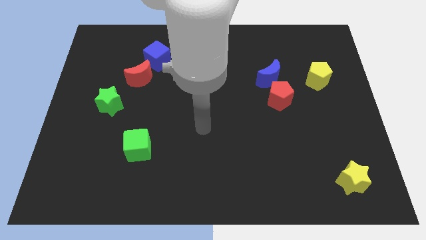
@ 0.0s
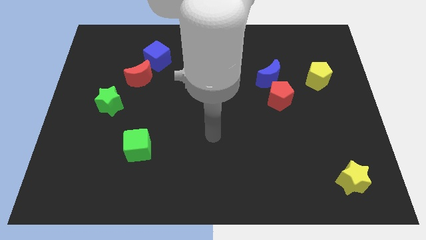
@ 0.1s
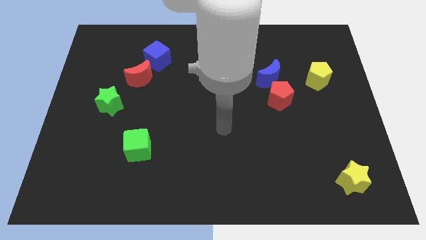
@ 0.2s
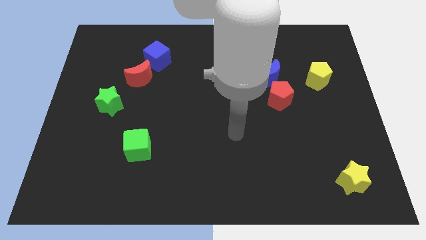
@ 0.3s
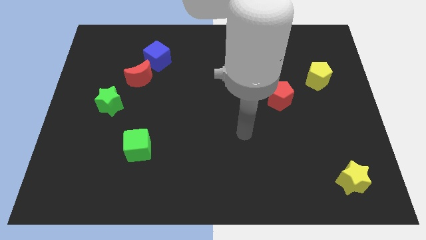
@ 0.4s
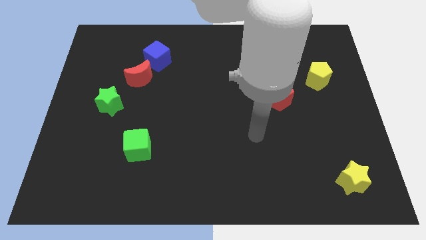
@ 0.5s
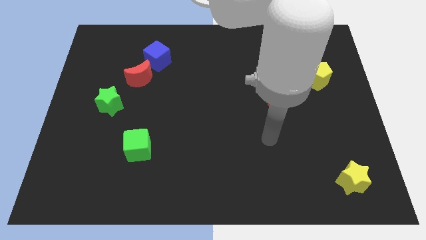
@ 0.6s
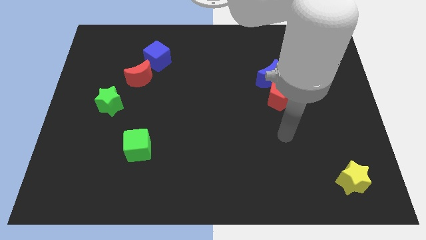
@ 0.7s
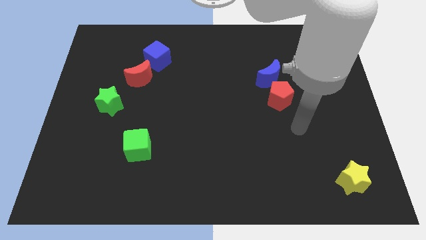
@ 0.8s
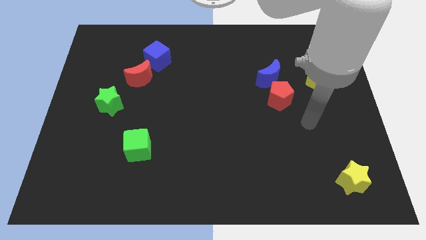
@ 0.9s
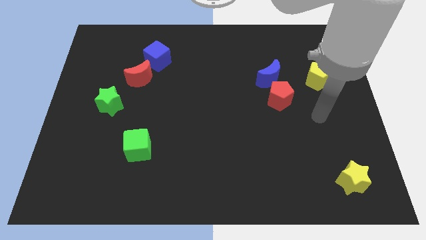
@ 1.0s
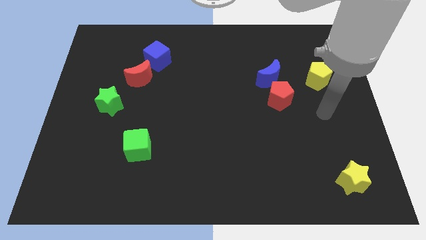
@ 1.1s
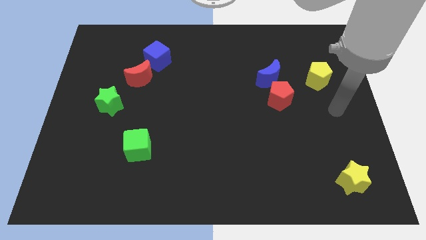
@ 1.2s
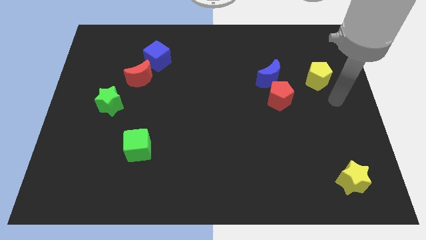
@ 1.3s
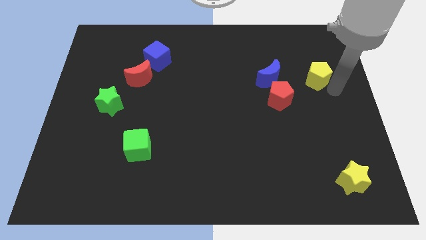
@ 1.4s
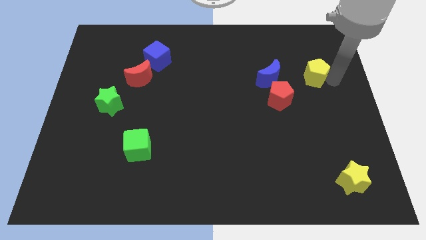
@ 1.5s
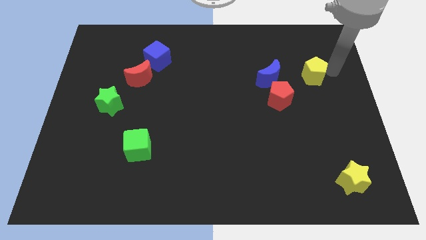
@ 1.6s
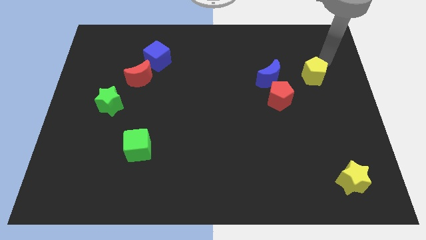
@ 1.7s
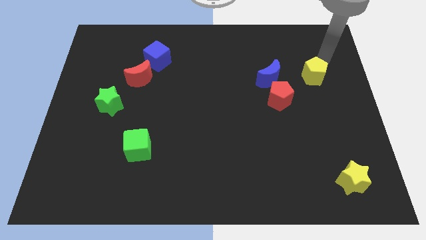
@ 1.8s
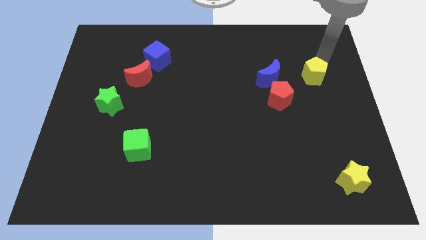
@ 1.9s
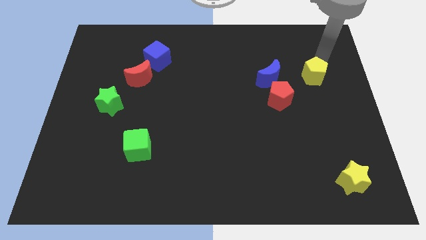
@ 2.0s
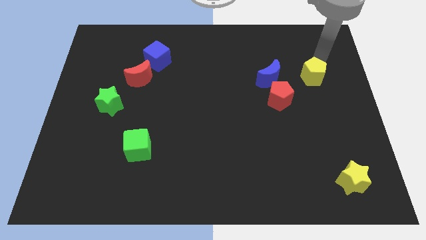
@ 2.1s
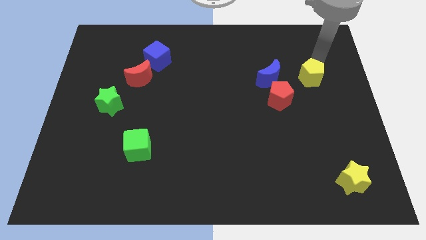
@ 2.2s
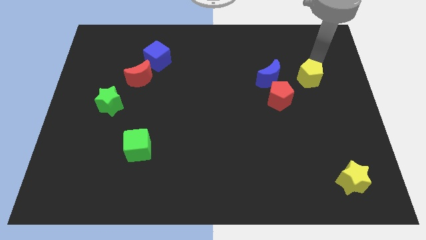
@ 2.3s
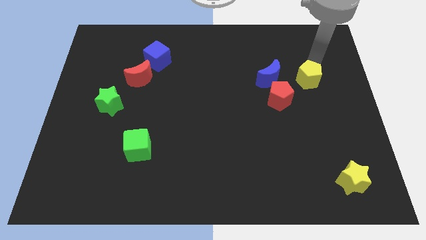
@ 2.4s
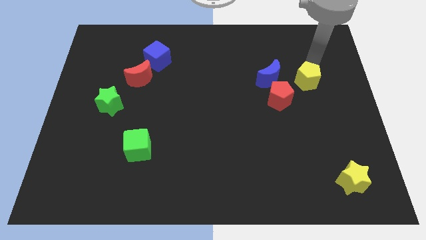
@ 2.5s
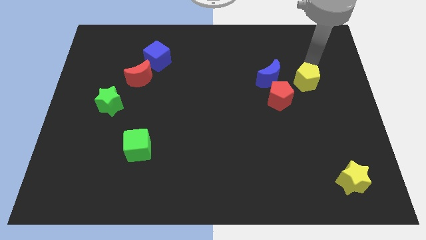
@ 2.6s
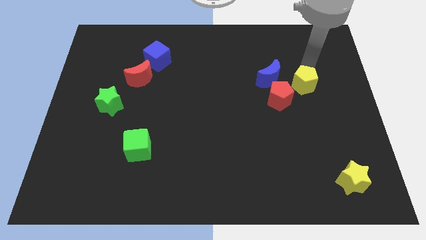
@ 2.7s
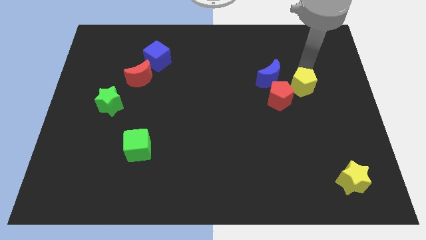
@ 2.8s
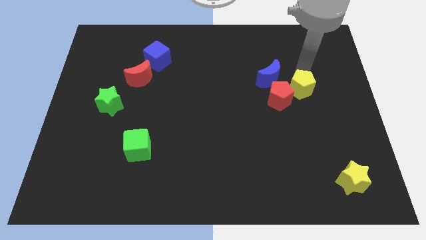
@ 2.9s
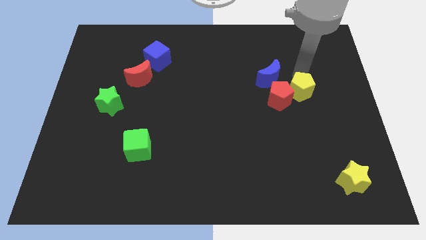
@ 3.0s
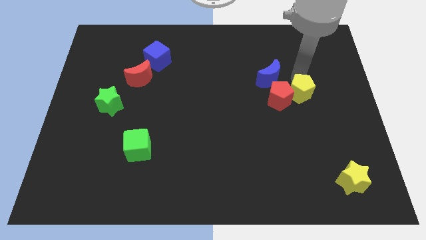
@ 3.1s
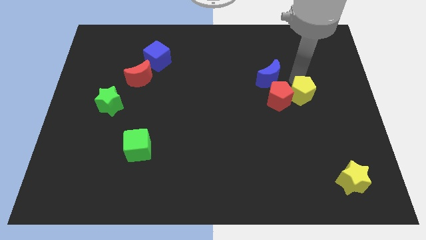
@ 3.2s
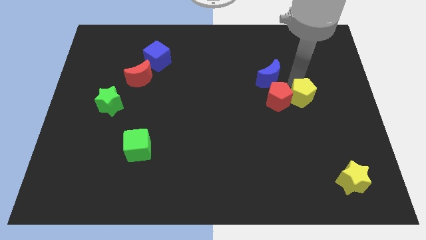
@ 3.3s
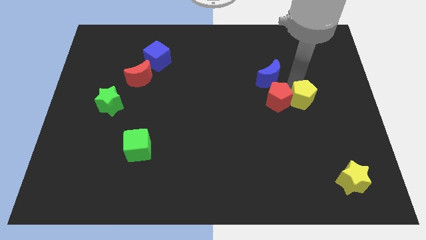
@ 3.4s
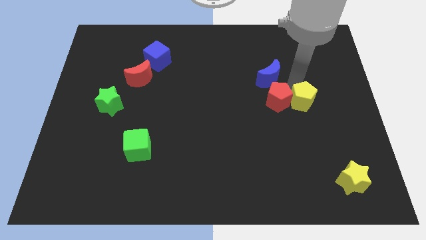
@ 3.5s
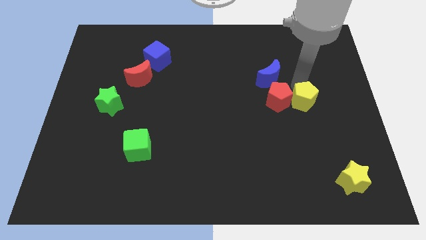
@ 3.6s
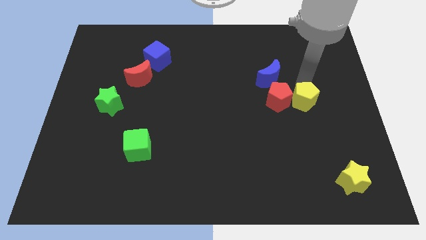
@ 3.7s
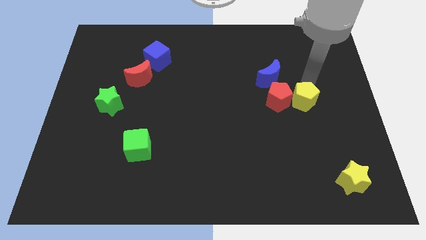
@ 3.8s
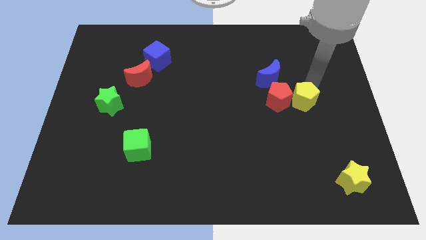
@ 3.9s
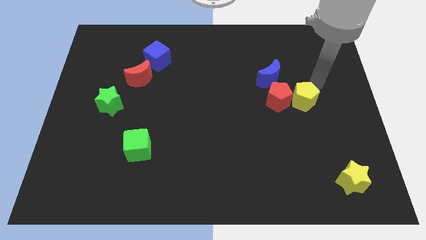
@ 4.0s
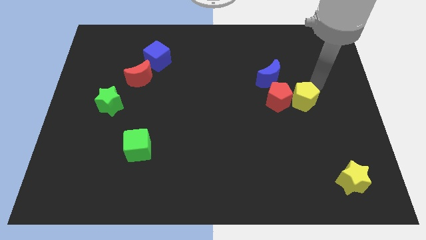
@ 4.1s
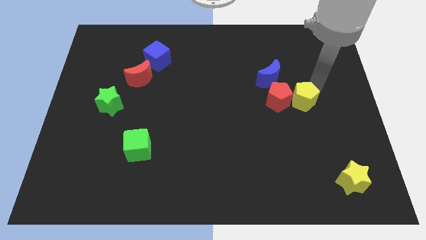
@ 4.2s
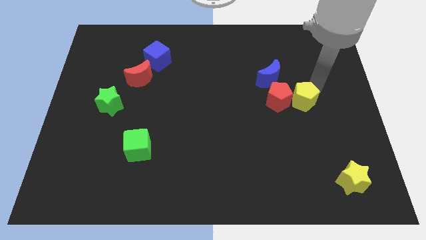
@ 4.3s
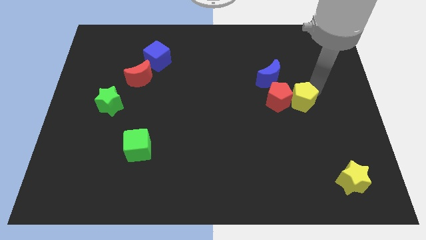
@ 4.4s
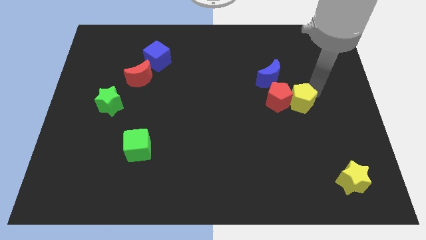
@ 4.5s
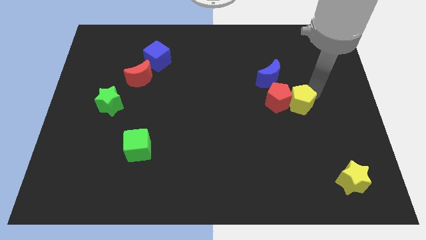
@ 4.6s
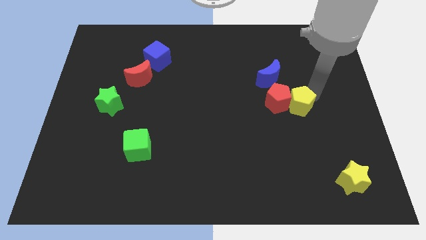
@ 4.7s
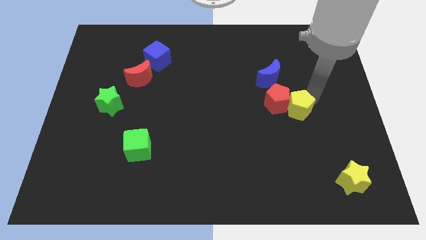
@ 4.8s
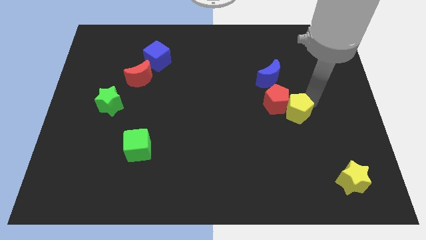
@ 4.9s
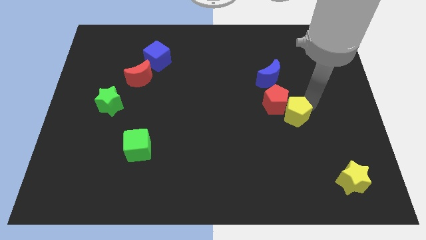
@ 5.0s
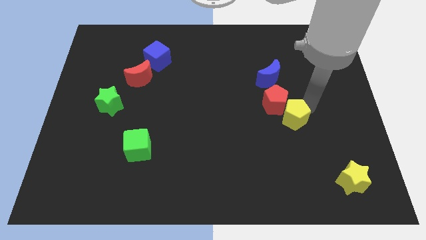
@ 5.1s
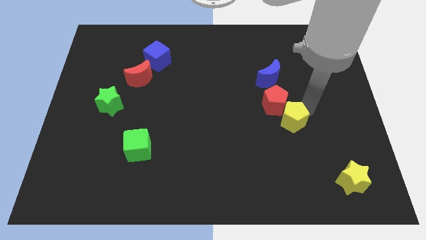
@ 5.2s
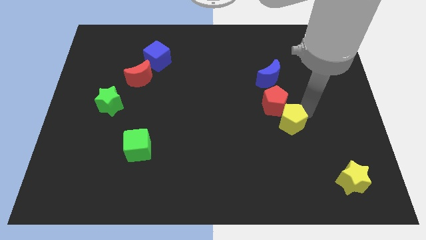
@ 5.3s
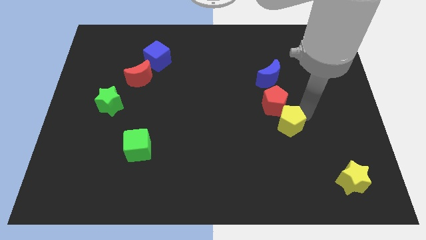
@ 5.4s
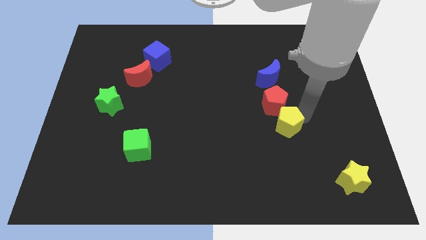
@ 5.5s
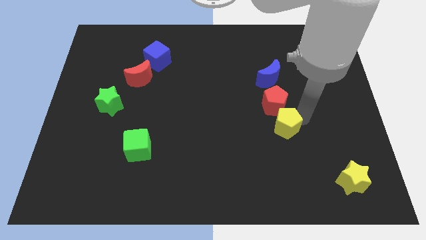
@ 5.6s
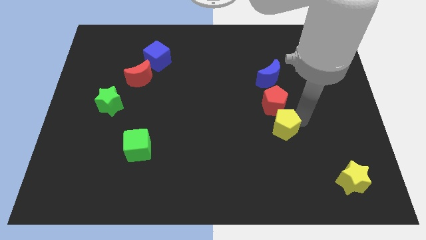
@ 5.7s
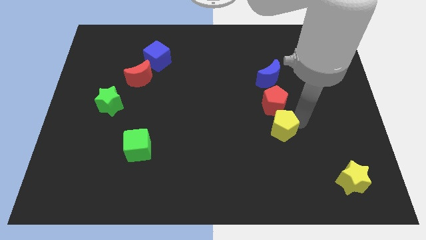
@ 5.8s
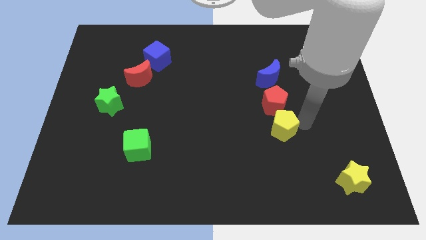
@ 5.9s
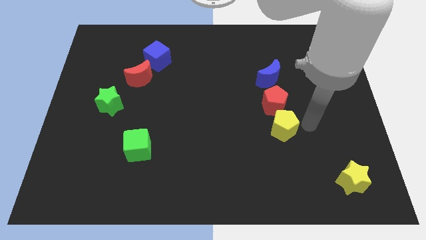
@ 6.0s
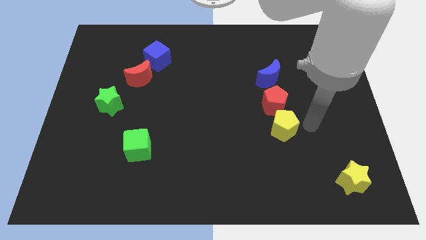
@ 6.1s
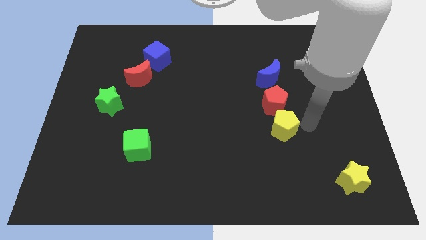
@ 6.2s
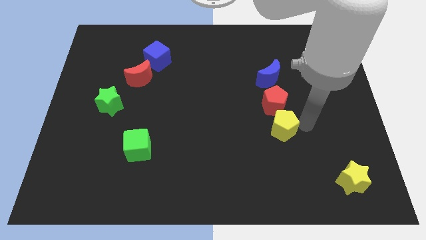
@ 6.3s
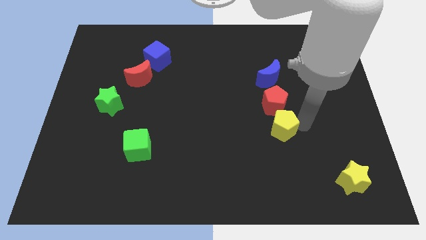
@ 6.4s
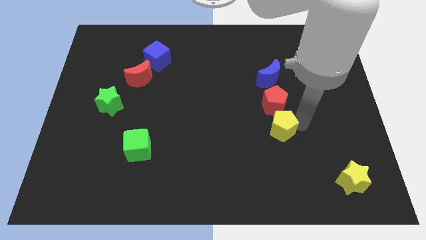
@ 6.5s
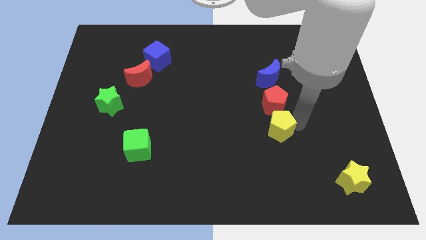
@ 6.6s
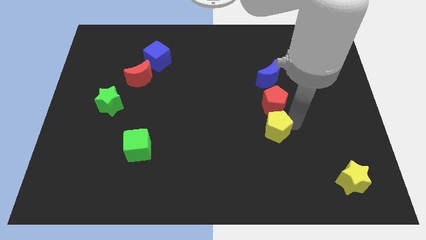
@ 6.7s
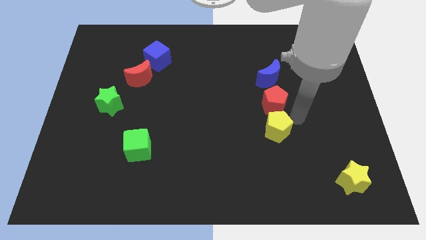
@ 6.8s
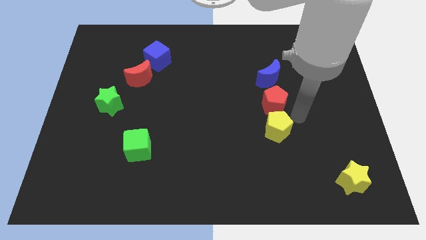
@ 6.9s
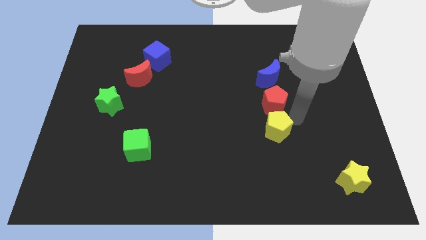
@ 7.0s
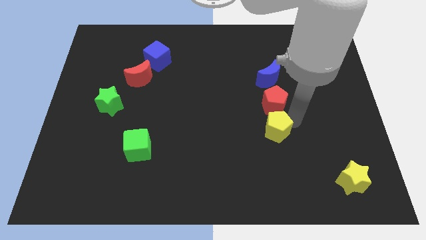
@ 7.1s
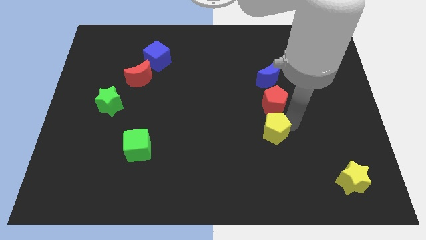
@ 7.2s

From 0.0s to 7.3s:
push the yellow pentagon downwards and to the left diagonally

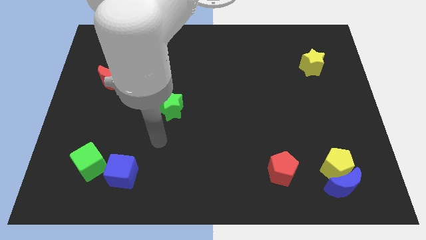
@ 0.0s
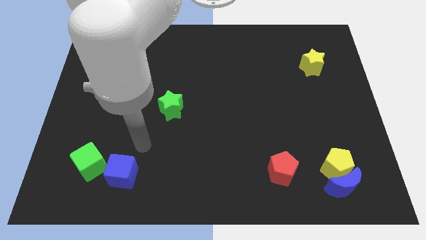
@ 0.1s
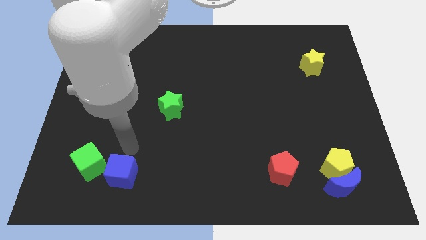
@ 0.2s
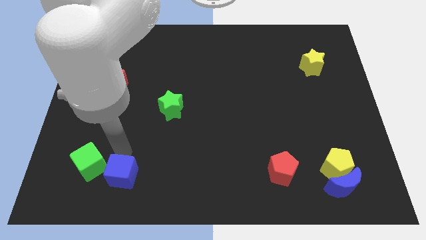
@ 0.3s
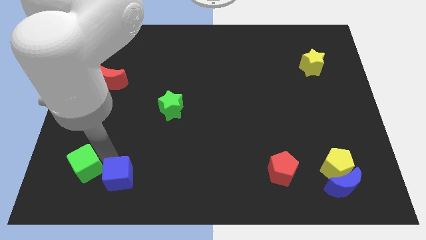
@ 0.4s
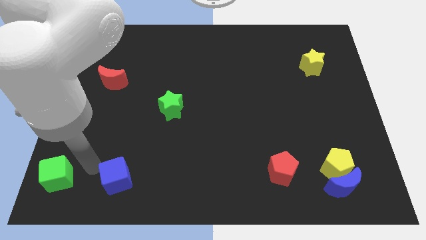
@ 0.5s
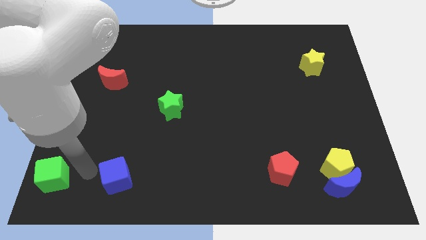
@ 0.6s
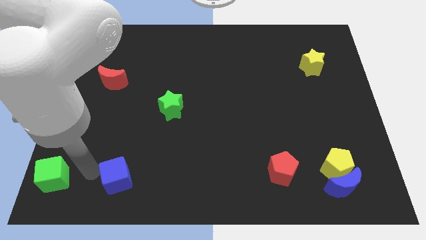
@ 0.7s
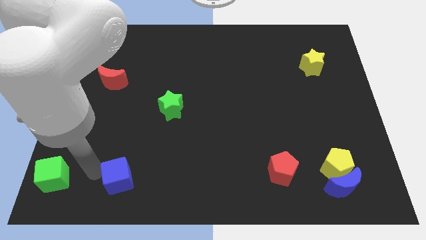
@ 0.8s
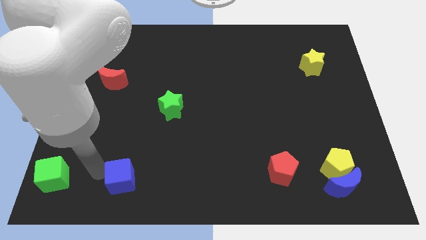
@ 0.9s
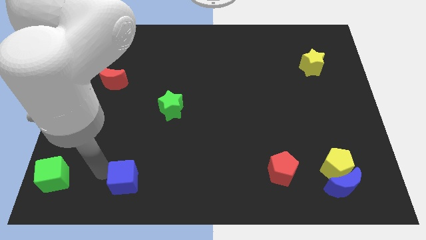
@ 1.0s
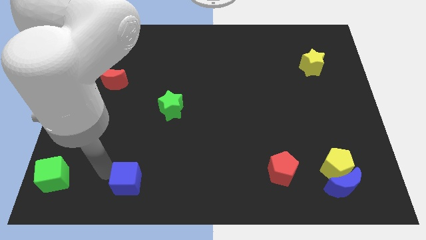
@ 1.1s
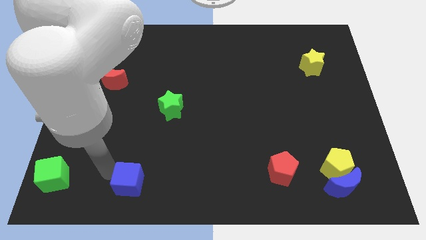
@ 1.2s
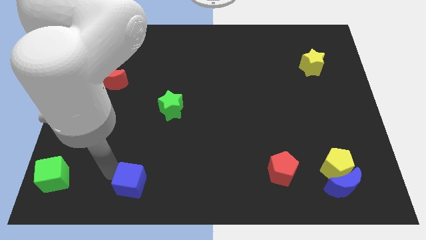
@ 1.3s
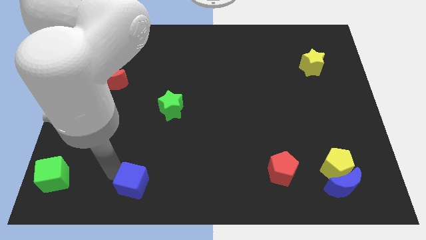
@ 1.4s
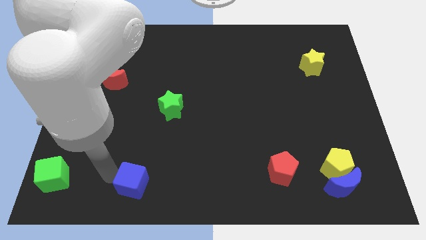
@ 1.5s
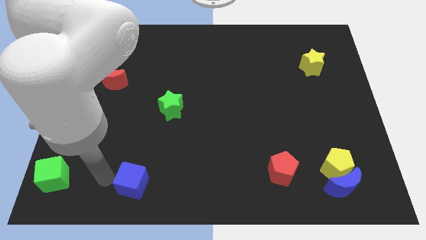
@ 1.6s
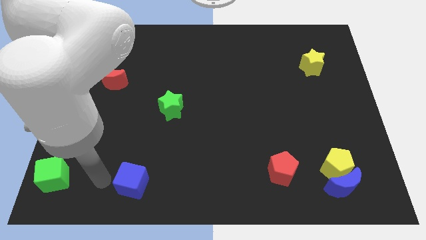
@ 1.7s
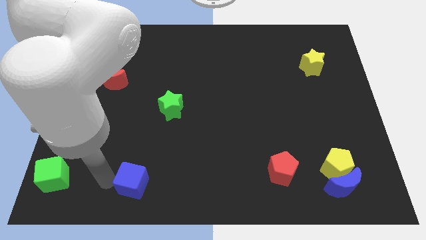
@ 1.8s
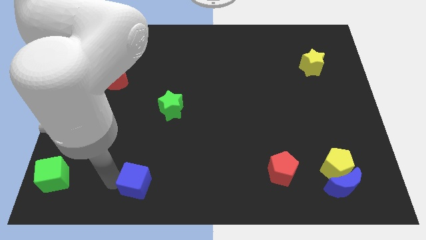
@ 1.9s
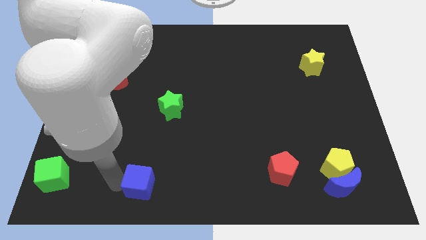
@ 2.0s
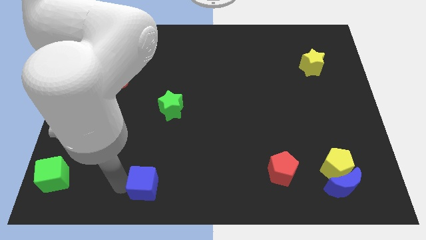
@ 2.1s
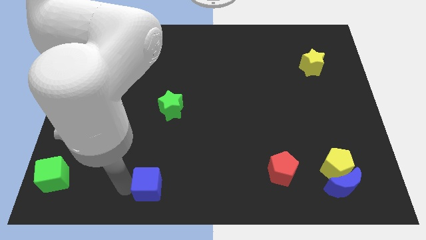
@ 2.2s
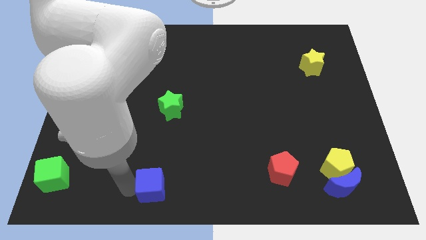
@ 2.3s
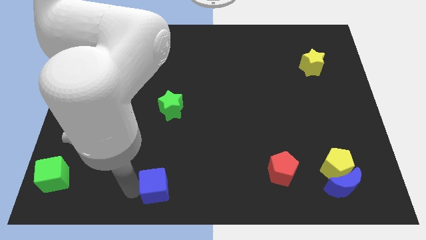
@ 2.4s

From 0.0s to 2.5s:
move the blue cube to the right slightly
